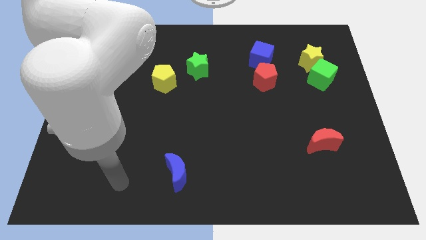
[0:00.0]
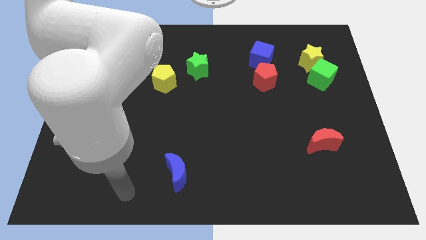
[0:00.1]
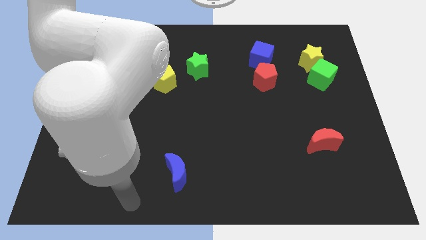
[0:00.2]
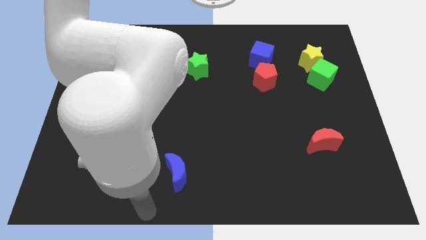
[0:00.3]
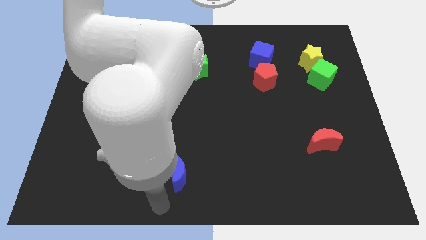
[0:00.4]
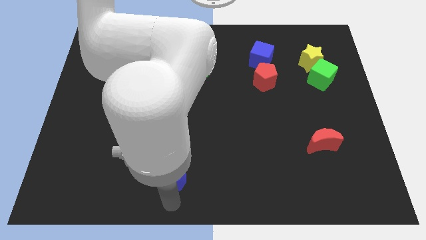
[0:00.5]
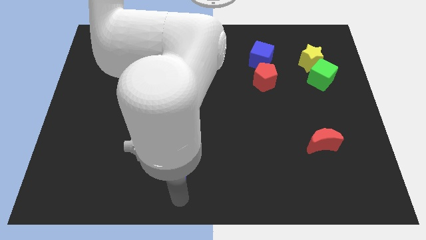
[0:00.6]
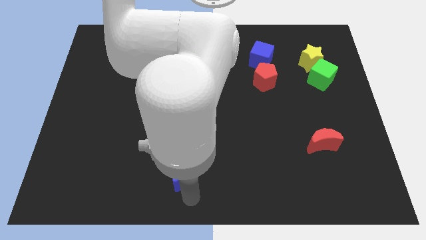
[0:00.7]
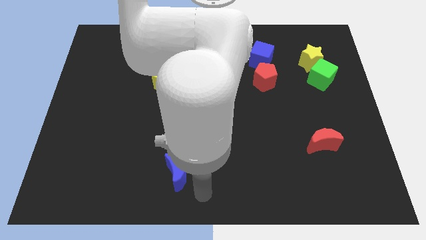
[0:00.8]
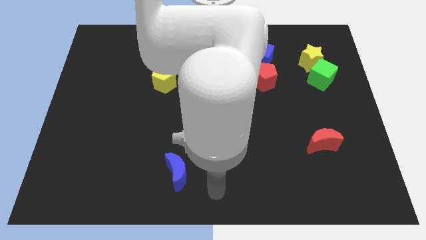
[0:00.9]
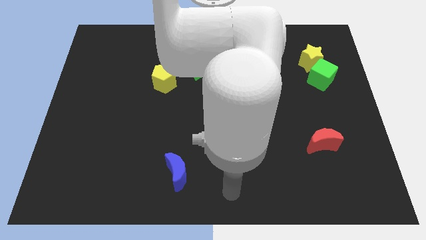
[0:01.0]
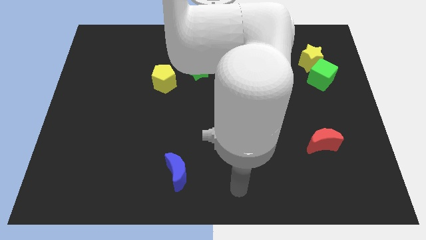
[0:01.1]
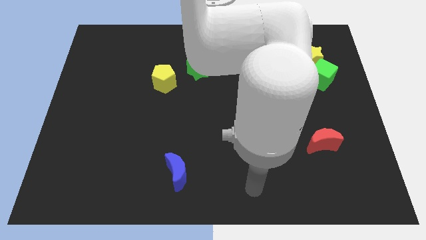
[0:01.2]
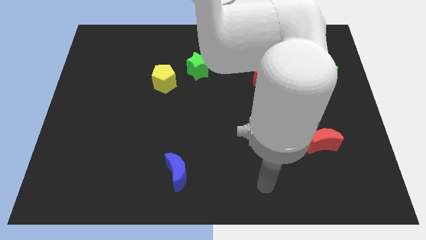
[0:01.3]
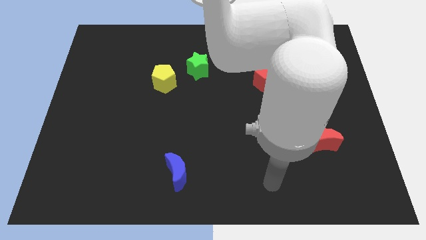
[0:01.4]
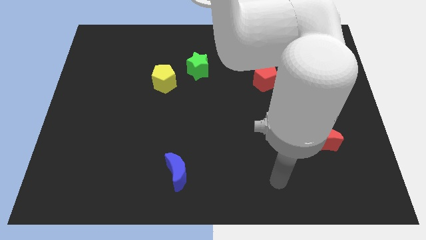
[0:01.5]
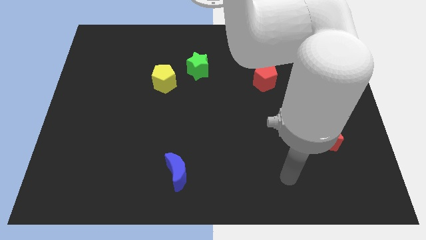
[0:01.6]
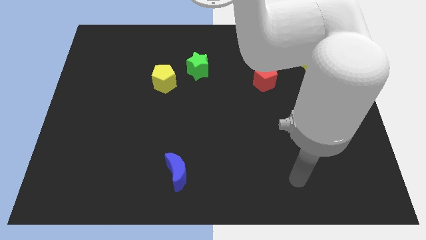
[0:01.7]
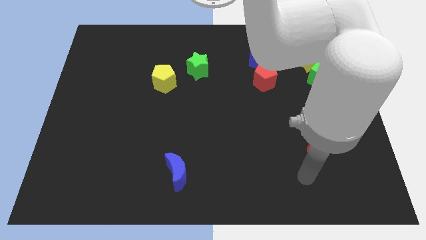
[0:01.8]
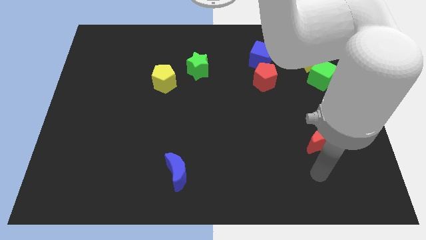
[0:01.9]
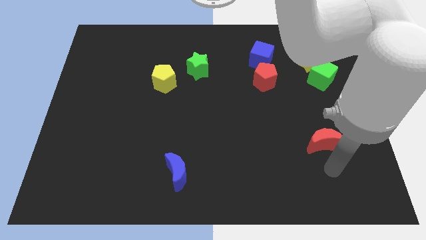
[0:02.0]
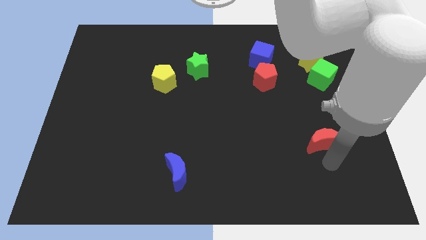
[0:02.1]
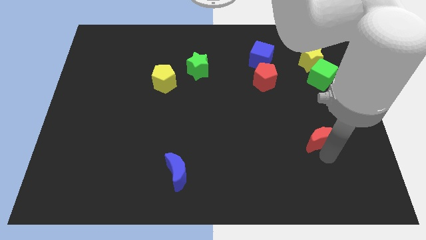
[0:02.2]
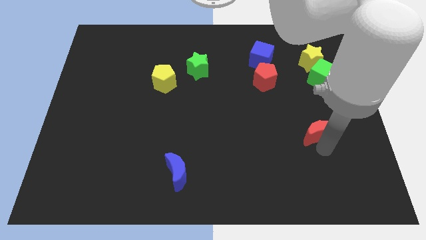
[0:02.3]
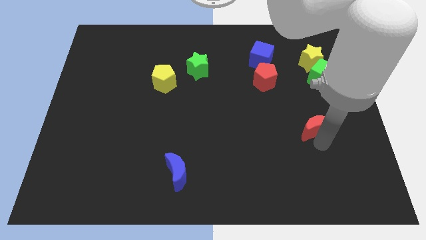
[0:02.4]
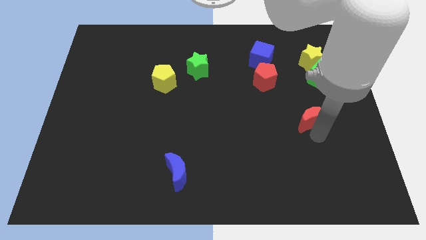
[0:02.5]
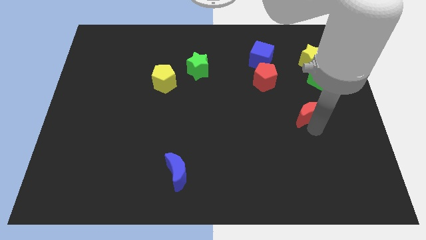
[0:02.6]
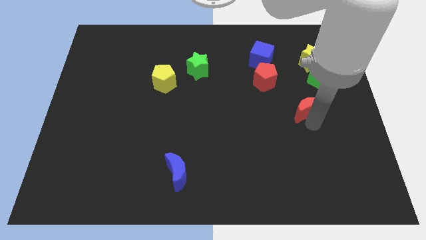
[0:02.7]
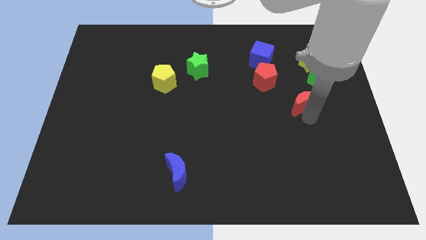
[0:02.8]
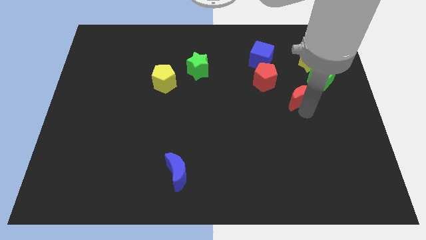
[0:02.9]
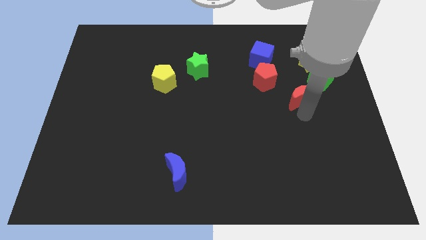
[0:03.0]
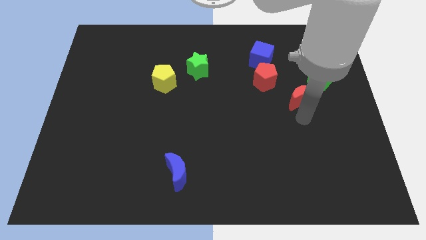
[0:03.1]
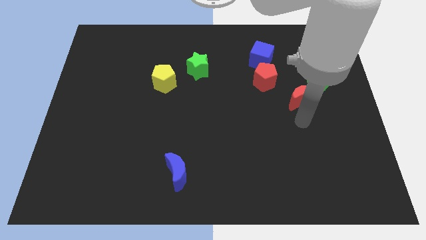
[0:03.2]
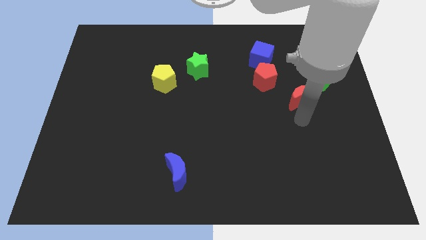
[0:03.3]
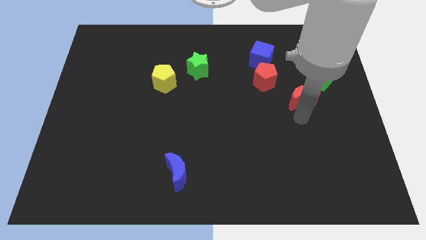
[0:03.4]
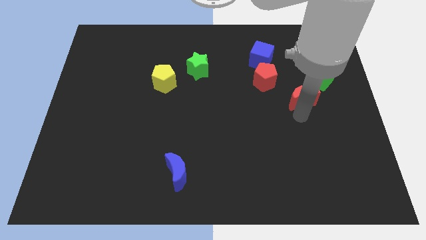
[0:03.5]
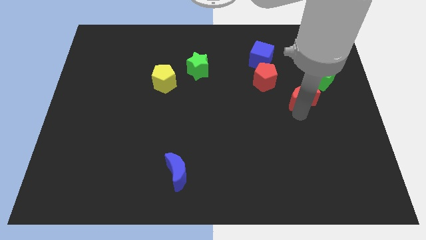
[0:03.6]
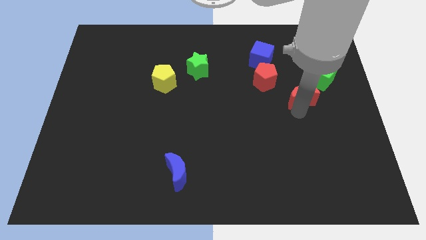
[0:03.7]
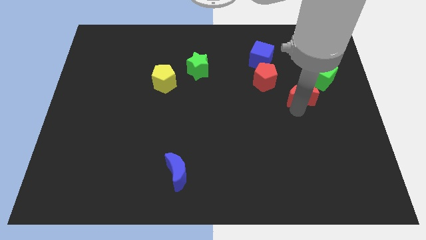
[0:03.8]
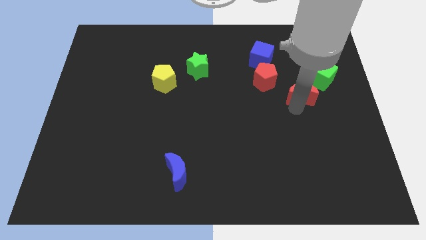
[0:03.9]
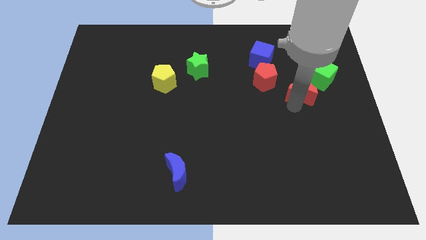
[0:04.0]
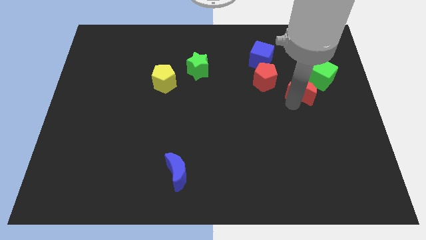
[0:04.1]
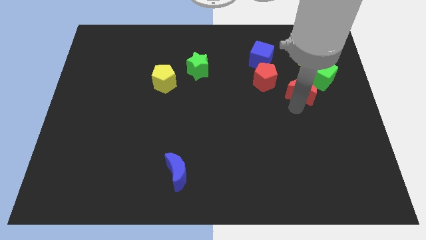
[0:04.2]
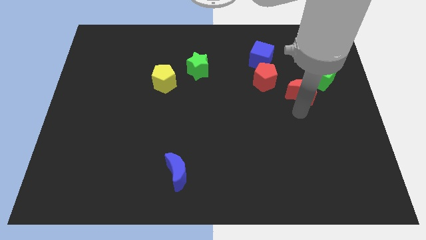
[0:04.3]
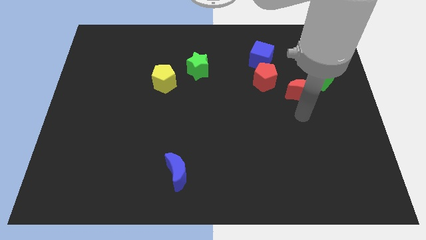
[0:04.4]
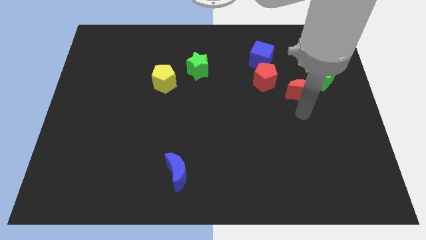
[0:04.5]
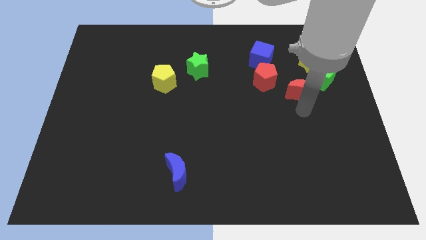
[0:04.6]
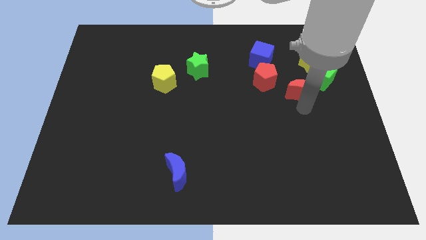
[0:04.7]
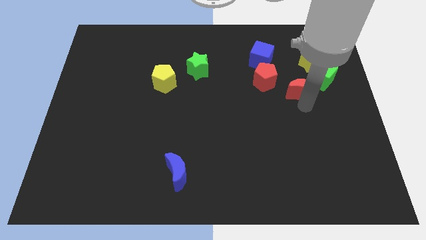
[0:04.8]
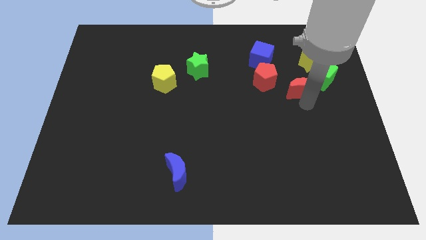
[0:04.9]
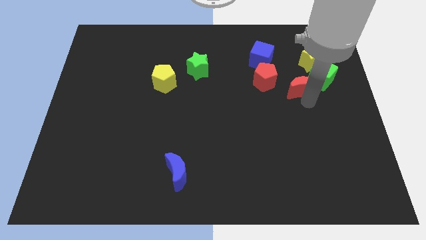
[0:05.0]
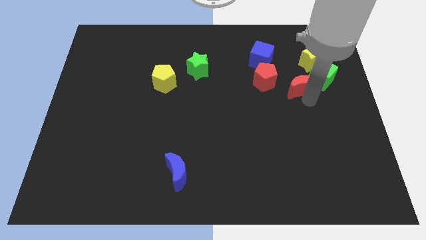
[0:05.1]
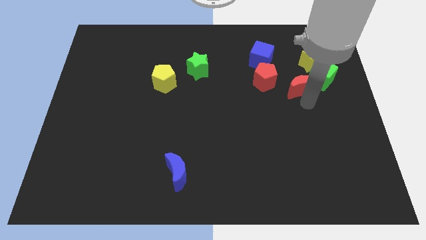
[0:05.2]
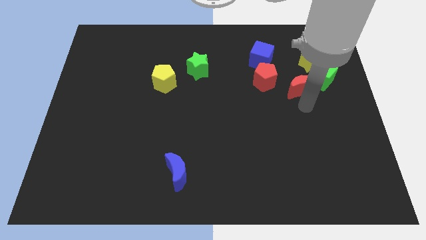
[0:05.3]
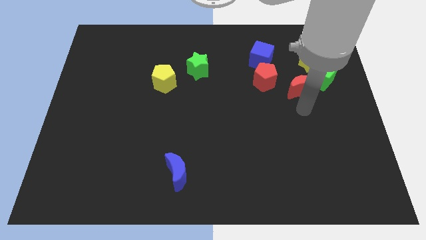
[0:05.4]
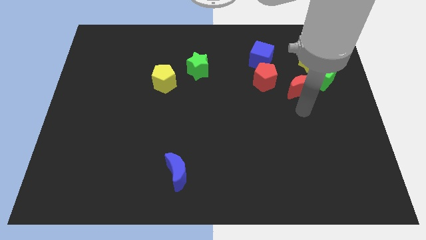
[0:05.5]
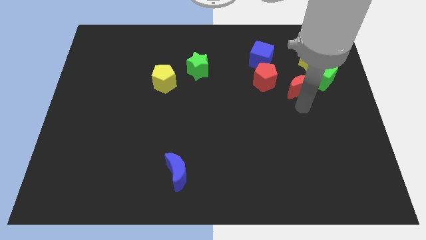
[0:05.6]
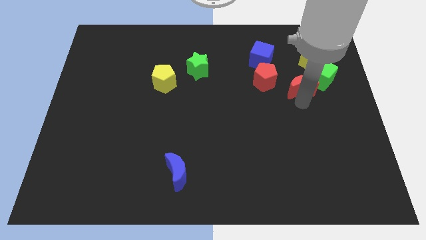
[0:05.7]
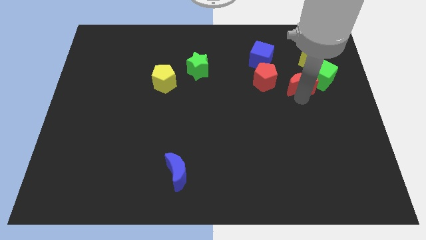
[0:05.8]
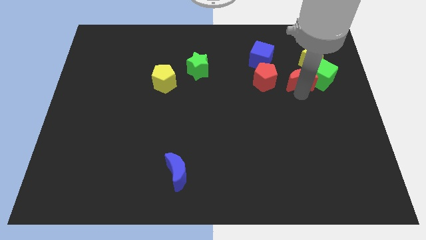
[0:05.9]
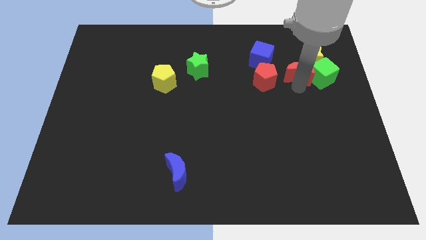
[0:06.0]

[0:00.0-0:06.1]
move the red moon next to the yellow star
